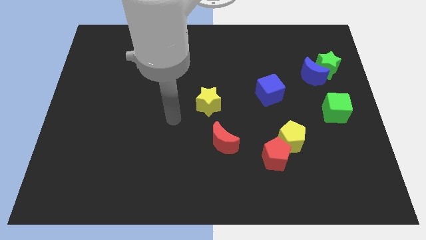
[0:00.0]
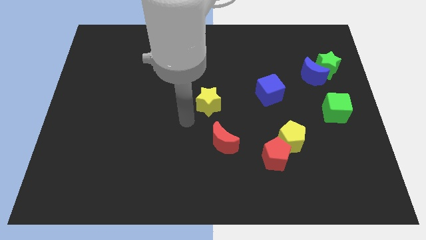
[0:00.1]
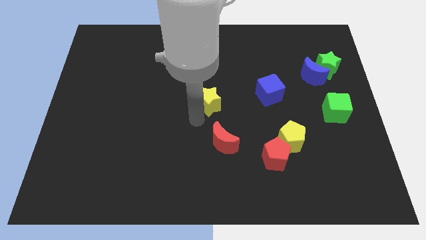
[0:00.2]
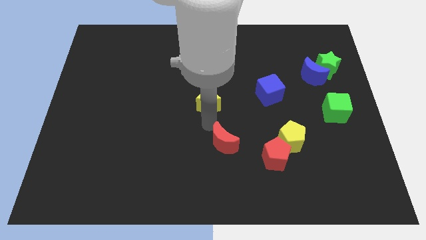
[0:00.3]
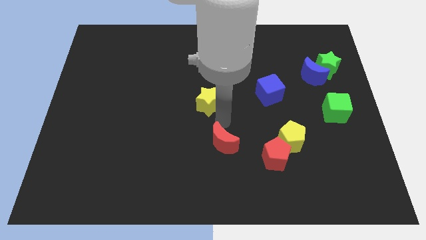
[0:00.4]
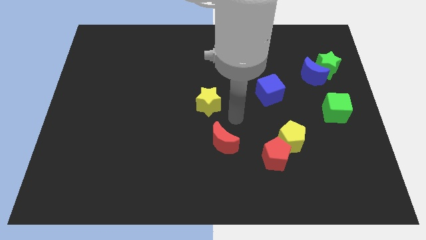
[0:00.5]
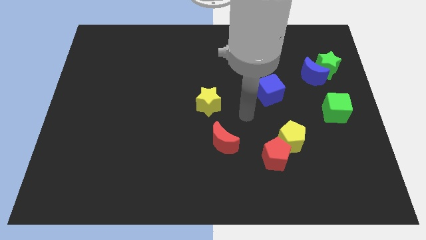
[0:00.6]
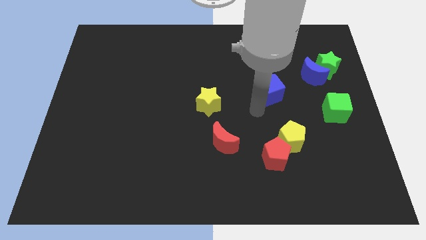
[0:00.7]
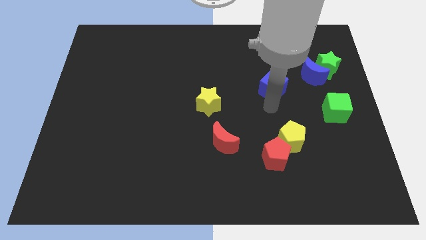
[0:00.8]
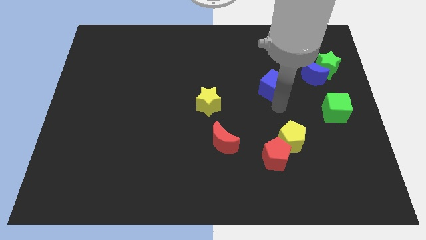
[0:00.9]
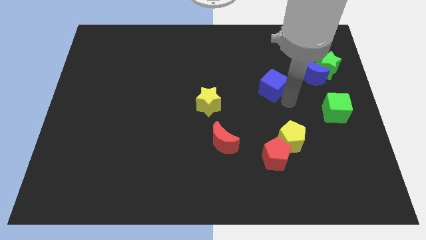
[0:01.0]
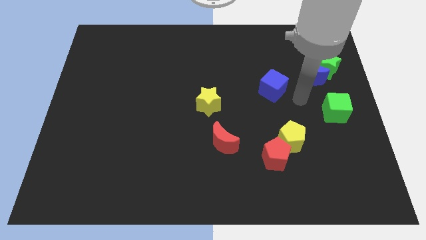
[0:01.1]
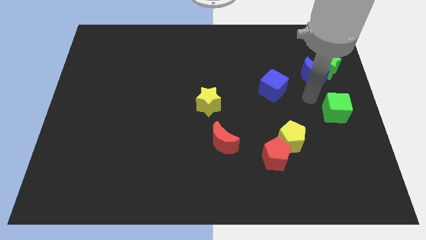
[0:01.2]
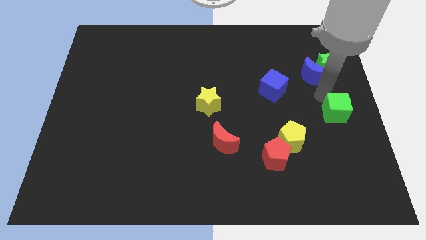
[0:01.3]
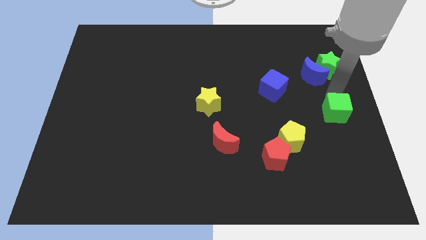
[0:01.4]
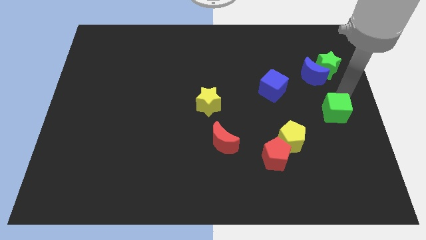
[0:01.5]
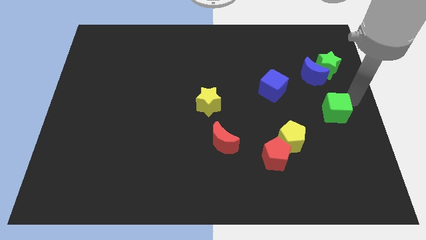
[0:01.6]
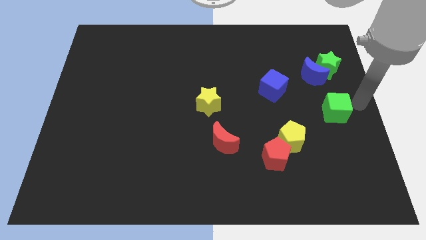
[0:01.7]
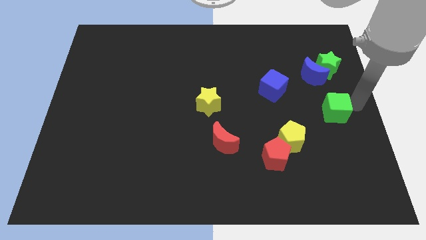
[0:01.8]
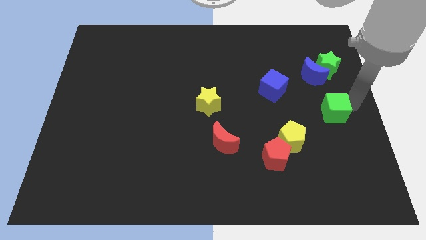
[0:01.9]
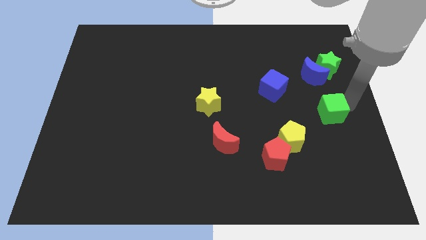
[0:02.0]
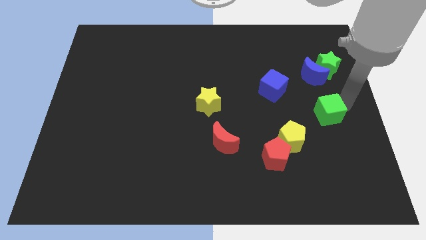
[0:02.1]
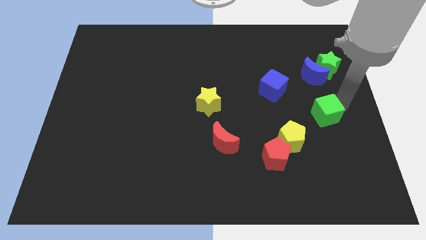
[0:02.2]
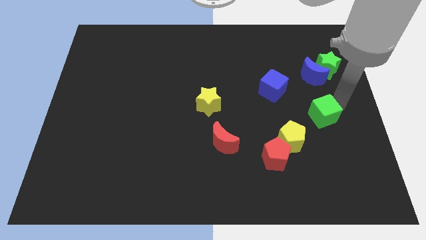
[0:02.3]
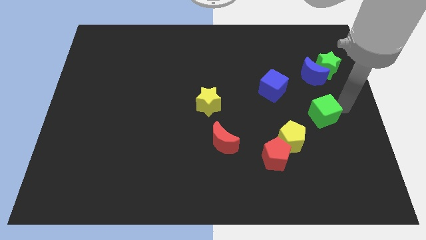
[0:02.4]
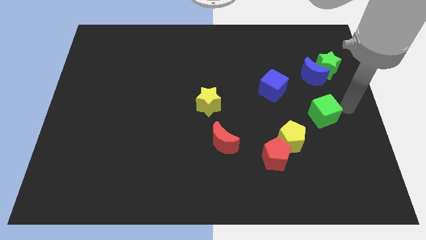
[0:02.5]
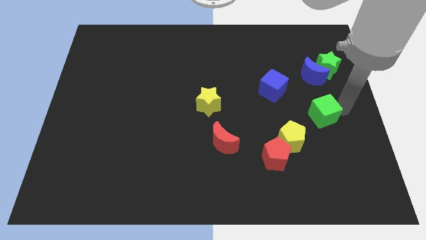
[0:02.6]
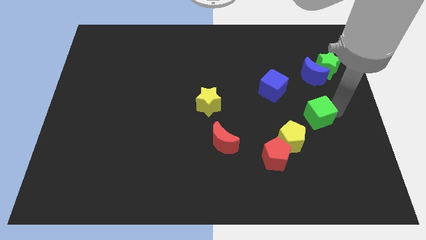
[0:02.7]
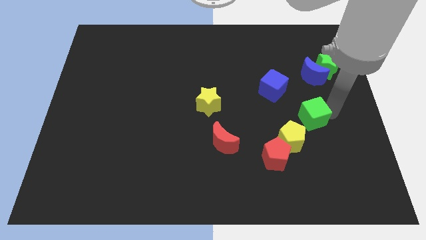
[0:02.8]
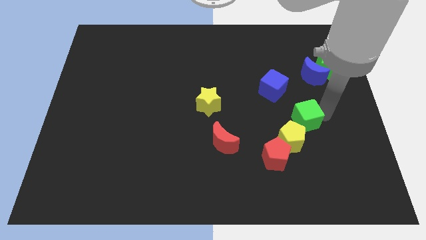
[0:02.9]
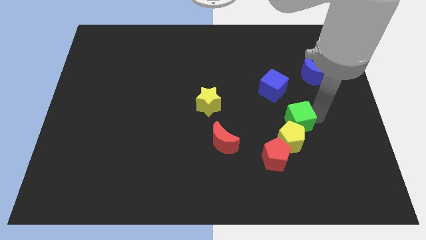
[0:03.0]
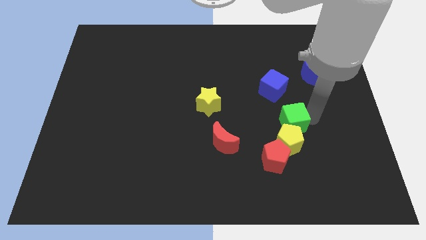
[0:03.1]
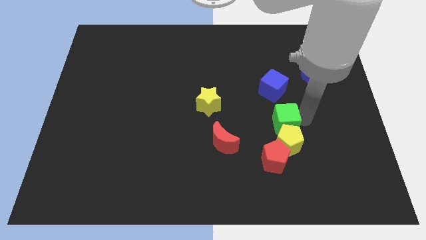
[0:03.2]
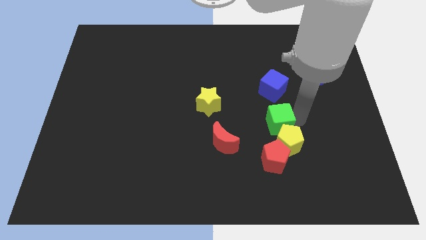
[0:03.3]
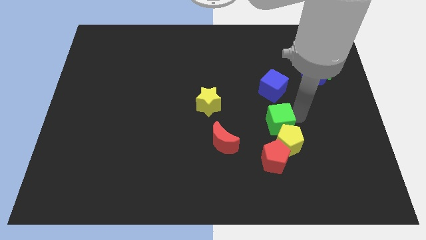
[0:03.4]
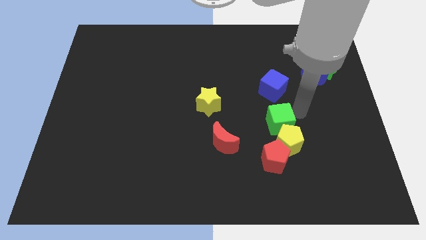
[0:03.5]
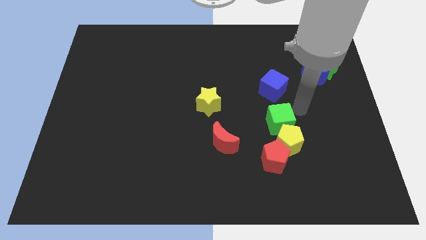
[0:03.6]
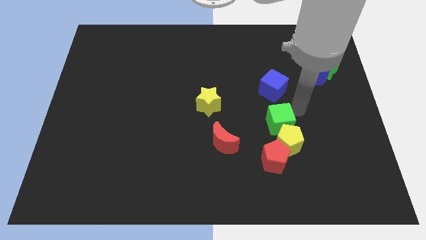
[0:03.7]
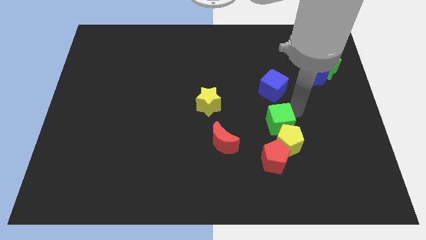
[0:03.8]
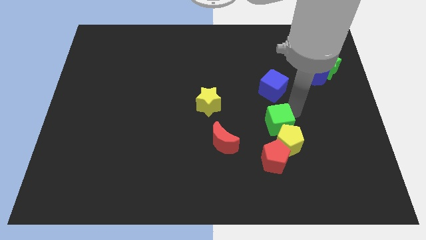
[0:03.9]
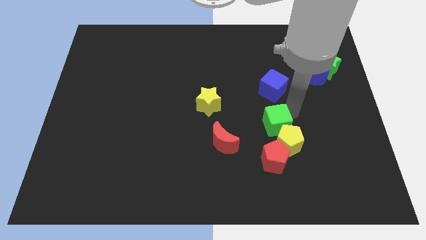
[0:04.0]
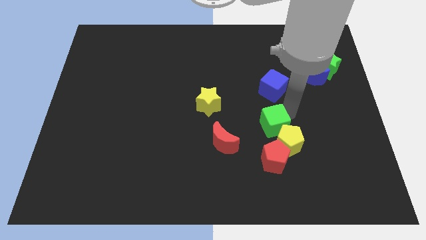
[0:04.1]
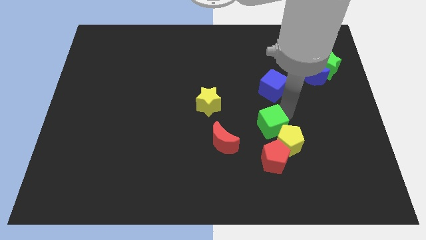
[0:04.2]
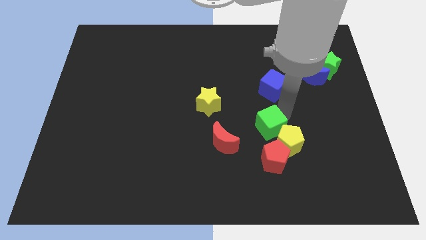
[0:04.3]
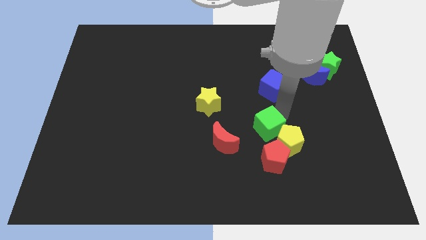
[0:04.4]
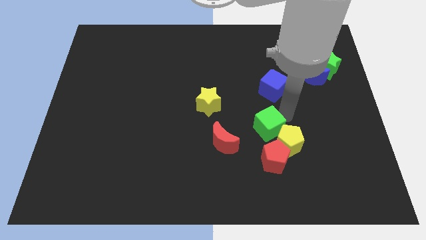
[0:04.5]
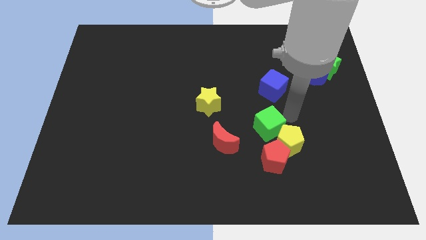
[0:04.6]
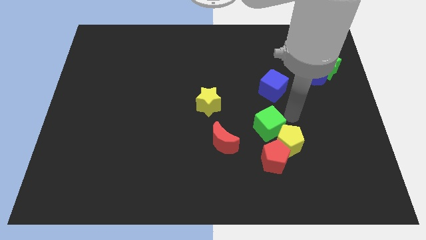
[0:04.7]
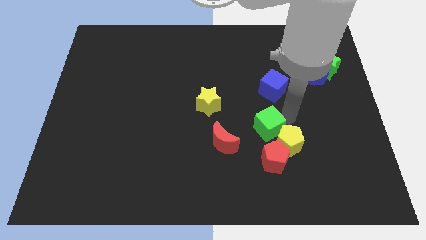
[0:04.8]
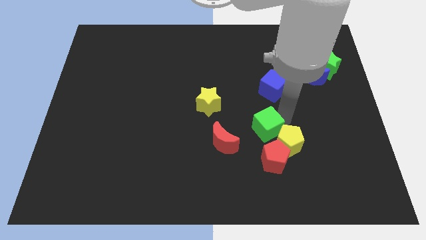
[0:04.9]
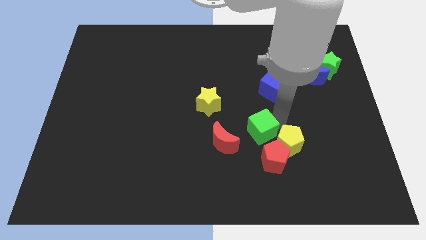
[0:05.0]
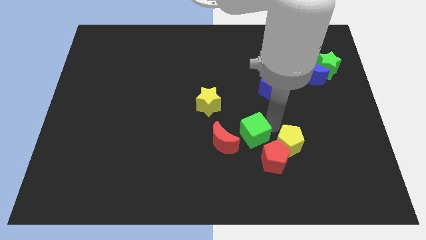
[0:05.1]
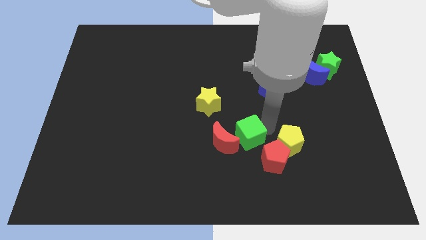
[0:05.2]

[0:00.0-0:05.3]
slide the green cube close to the red moon

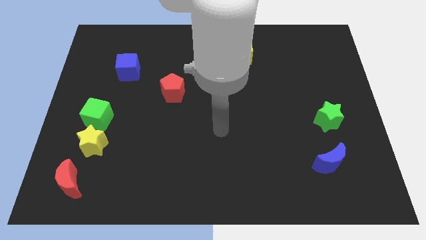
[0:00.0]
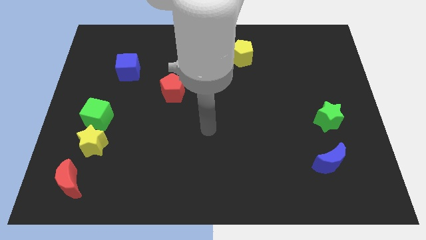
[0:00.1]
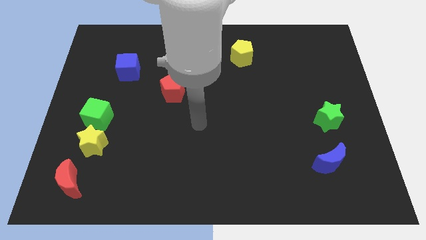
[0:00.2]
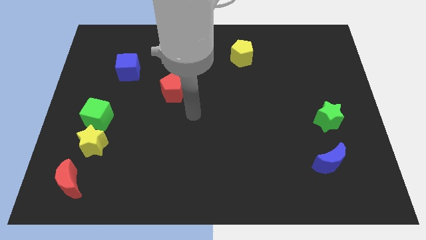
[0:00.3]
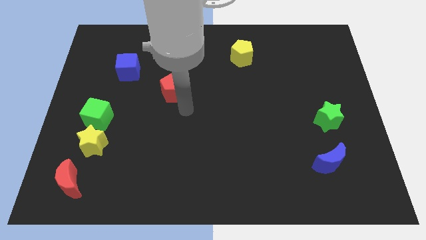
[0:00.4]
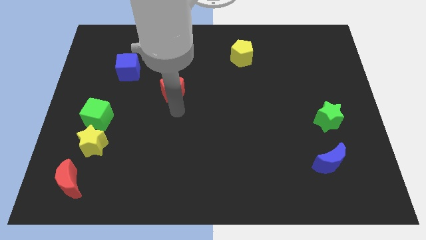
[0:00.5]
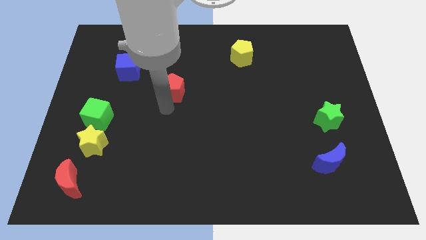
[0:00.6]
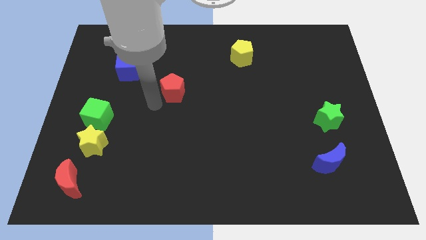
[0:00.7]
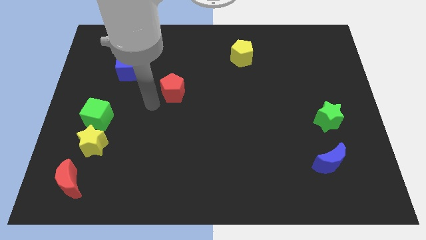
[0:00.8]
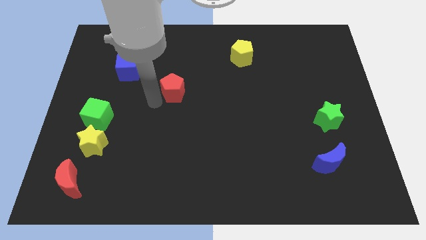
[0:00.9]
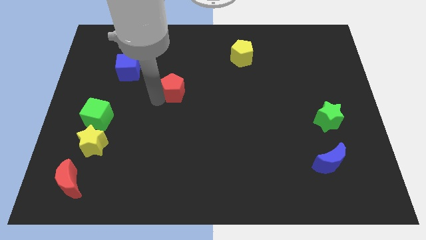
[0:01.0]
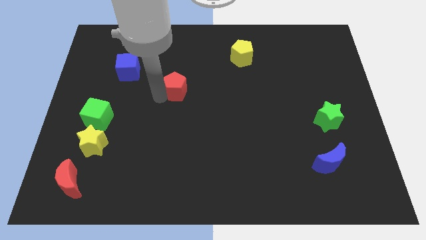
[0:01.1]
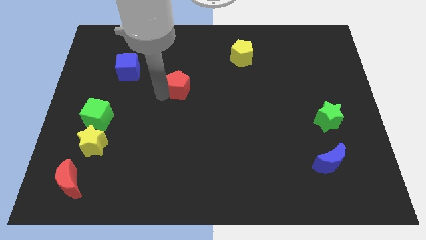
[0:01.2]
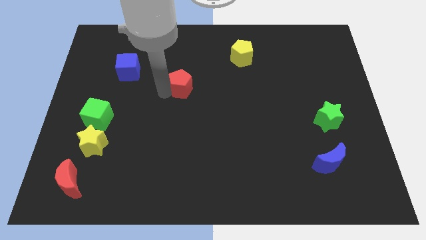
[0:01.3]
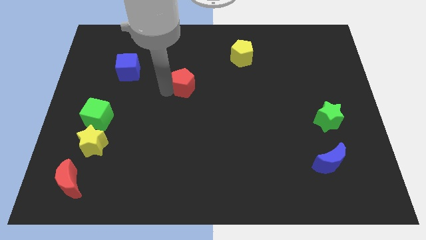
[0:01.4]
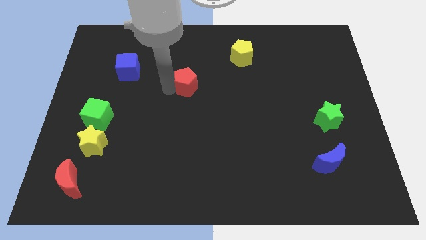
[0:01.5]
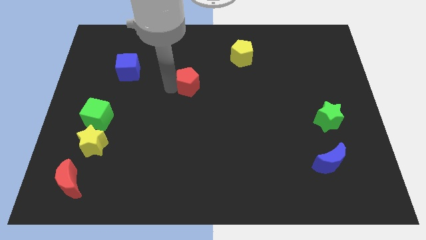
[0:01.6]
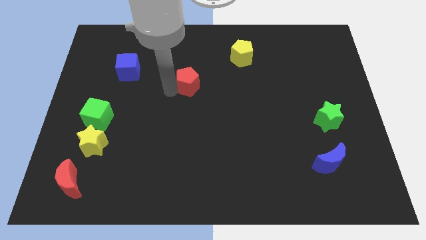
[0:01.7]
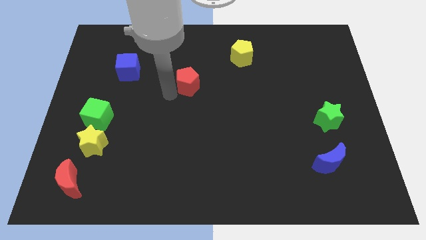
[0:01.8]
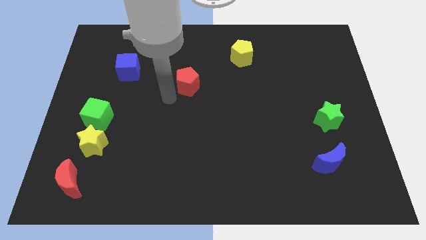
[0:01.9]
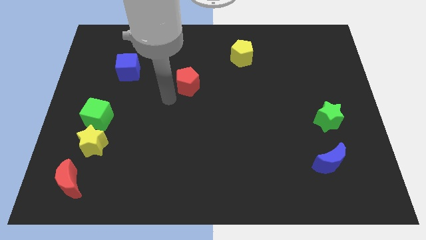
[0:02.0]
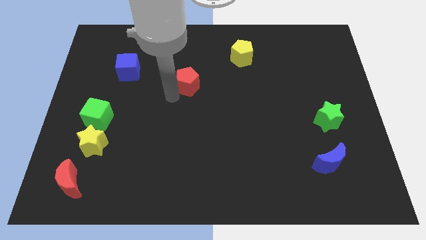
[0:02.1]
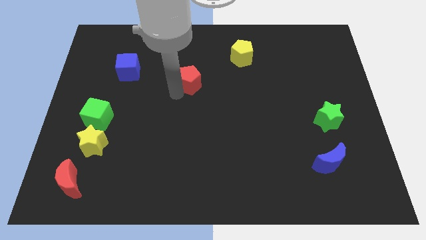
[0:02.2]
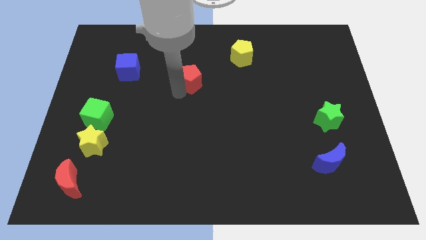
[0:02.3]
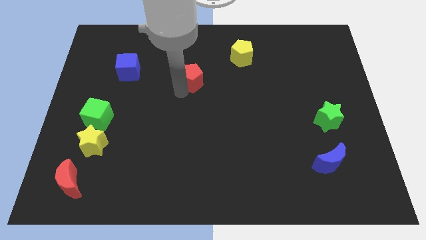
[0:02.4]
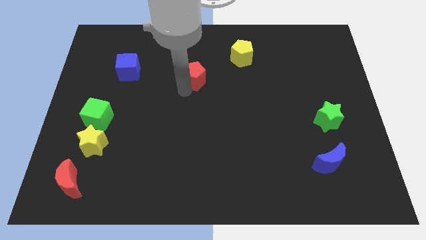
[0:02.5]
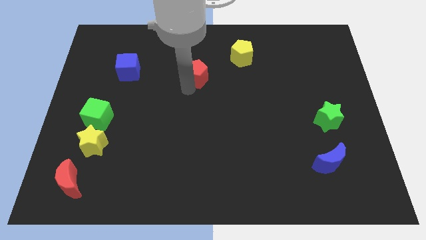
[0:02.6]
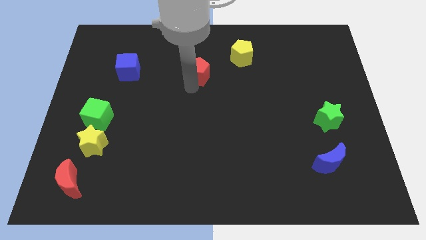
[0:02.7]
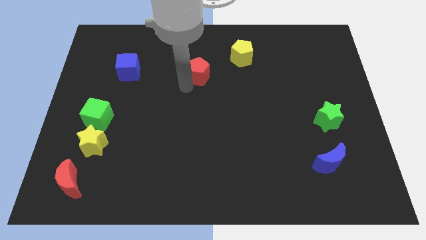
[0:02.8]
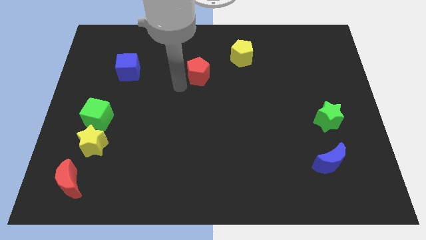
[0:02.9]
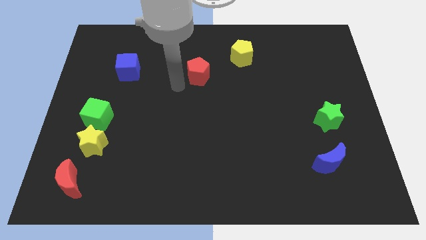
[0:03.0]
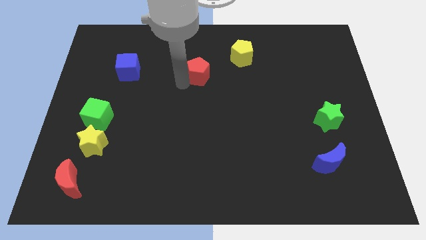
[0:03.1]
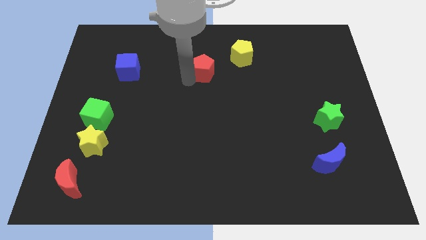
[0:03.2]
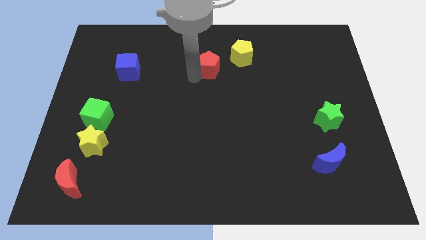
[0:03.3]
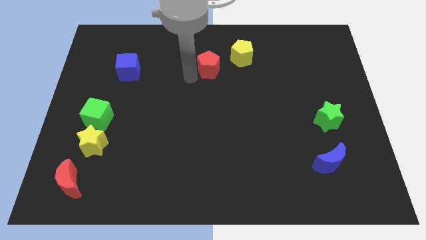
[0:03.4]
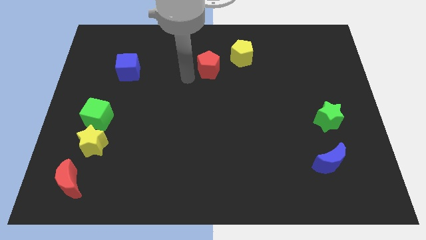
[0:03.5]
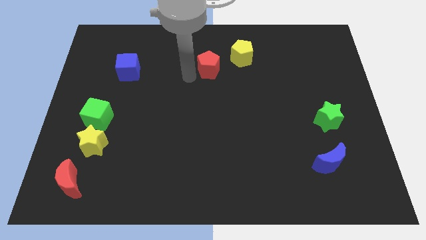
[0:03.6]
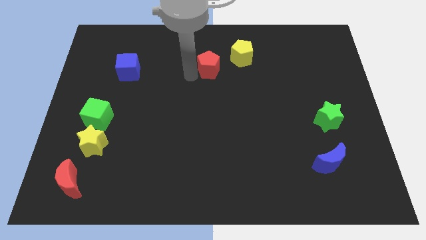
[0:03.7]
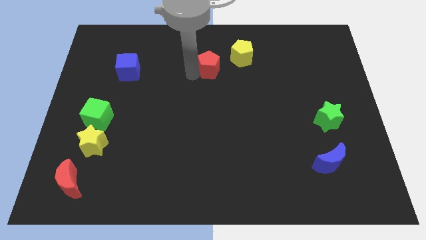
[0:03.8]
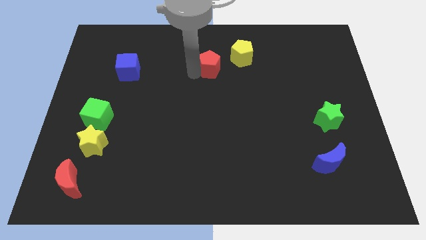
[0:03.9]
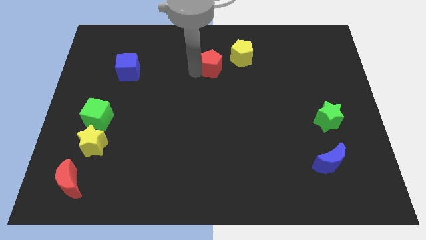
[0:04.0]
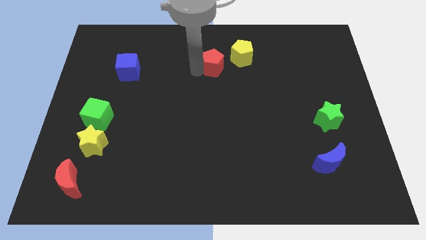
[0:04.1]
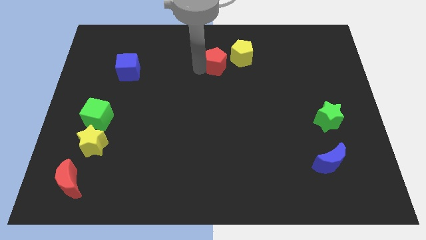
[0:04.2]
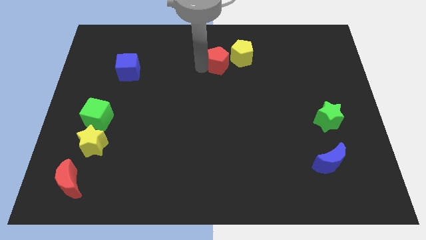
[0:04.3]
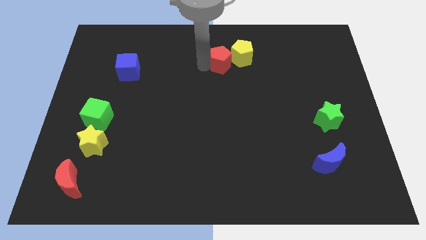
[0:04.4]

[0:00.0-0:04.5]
put the red pentagon to the yellow pentagon
